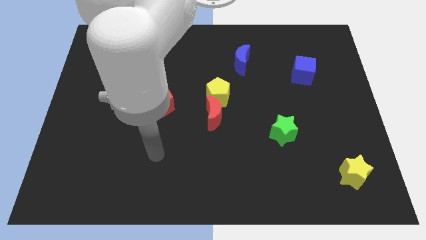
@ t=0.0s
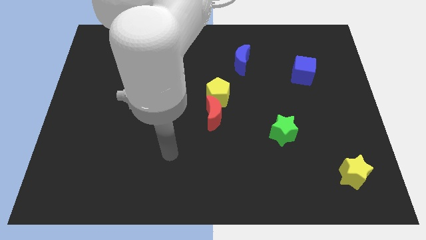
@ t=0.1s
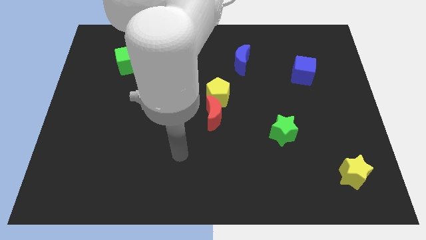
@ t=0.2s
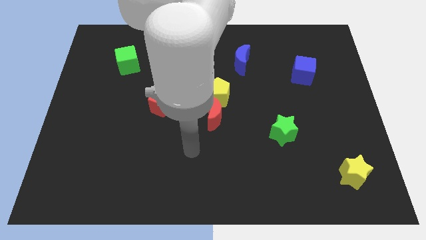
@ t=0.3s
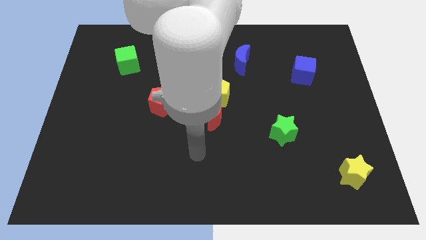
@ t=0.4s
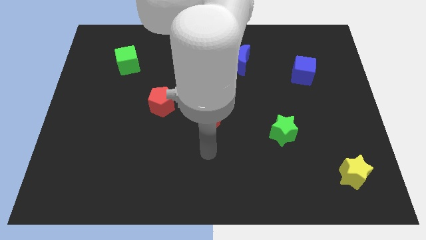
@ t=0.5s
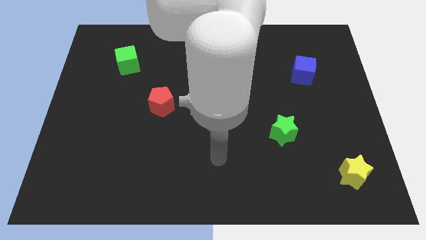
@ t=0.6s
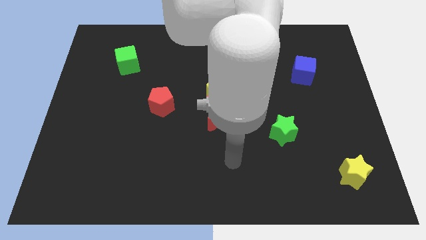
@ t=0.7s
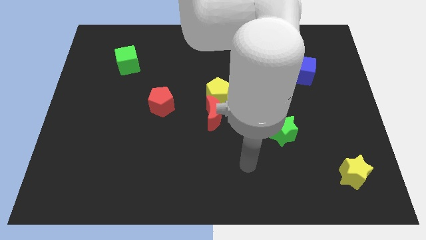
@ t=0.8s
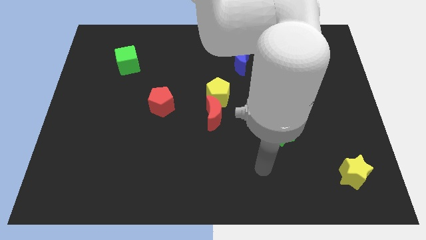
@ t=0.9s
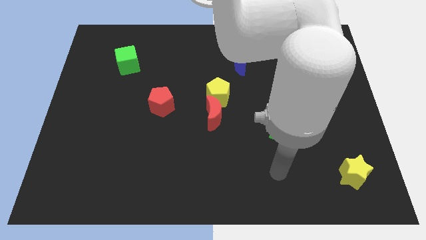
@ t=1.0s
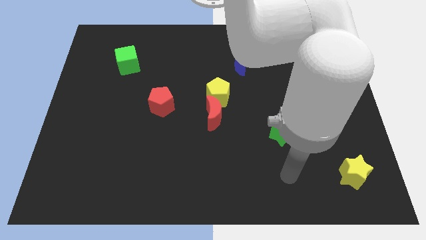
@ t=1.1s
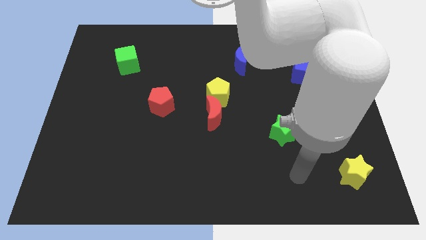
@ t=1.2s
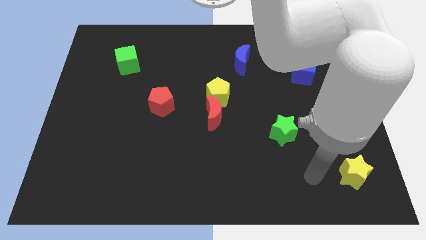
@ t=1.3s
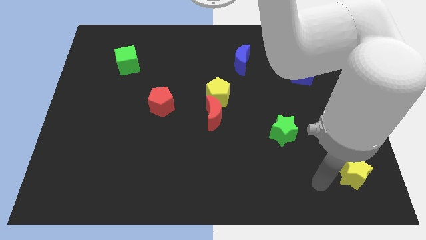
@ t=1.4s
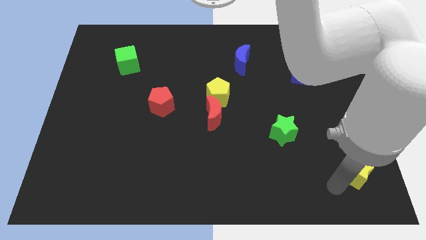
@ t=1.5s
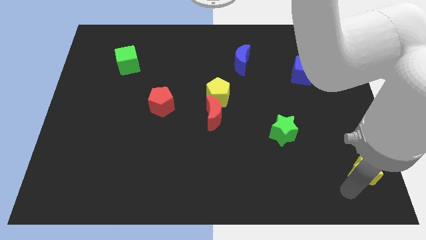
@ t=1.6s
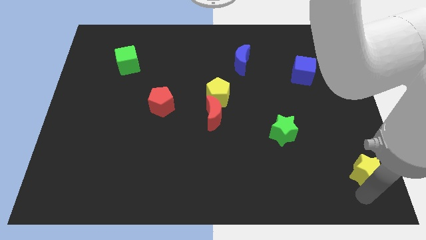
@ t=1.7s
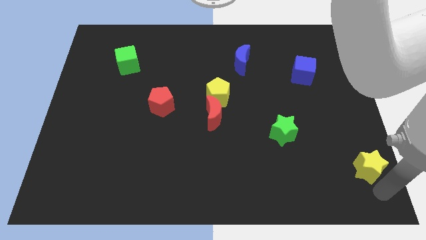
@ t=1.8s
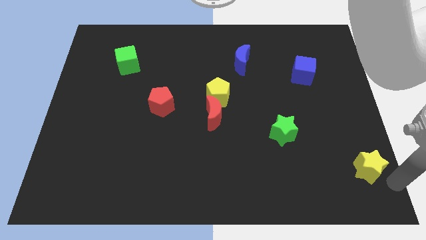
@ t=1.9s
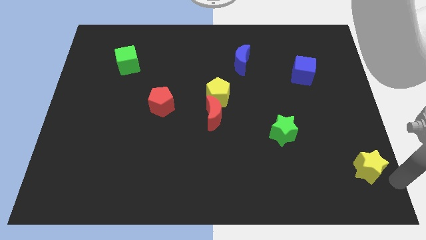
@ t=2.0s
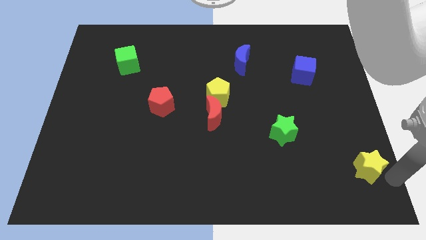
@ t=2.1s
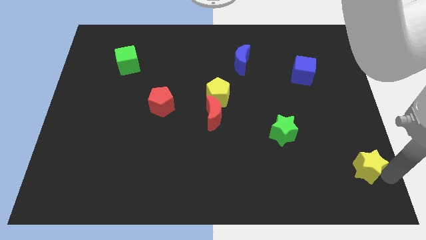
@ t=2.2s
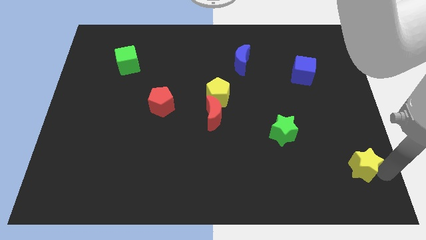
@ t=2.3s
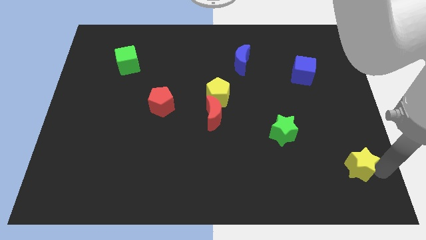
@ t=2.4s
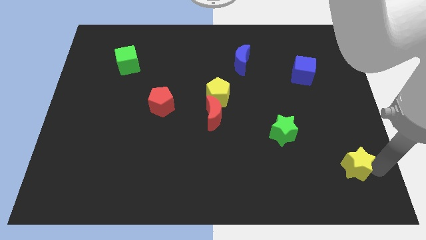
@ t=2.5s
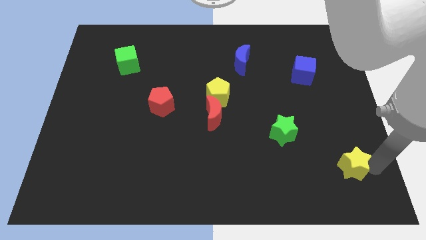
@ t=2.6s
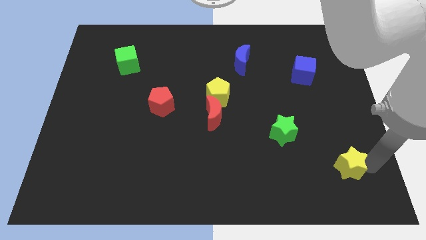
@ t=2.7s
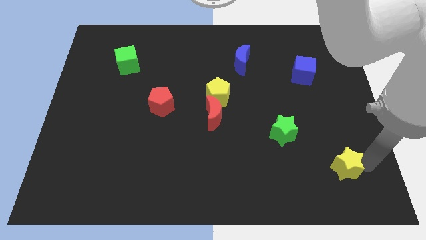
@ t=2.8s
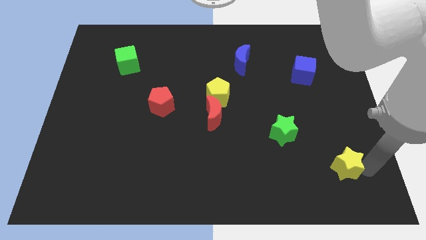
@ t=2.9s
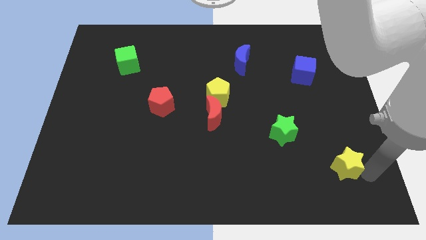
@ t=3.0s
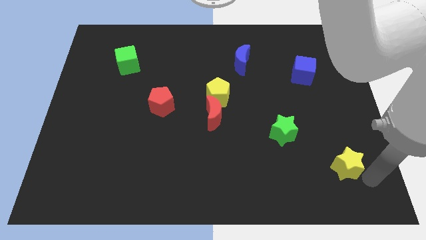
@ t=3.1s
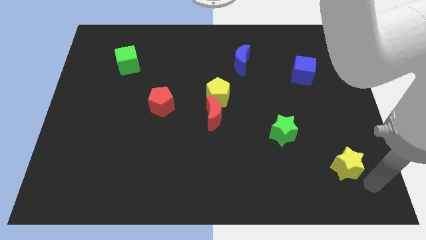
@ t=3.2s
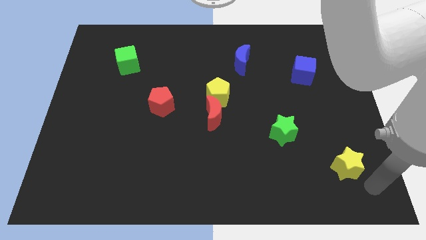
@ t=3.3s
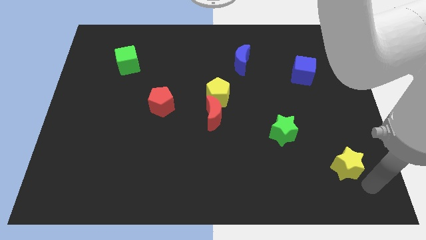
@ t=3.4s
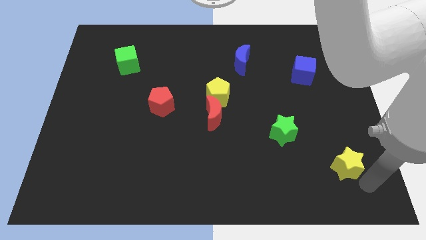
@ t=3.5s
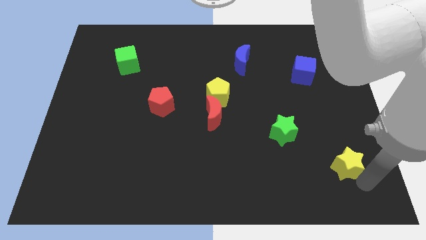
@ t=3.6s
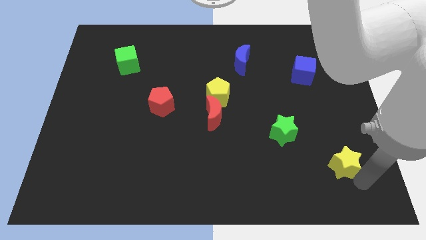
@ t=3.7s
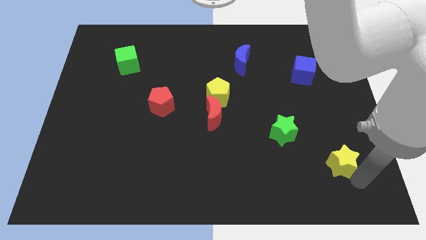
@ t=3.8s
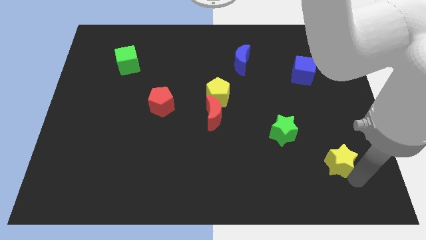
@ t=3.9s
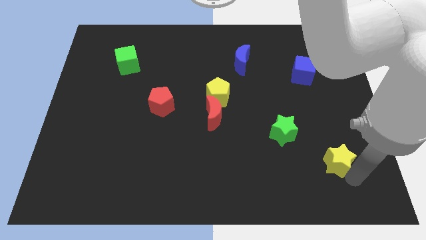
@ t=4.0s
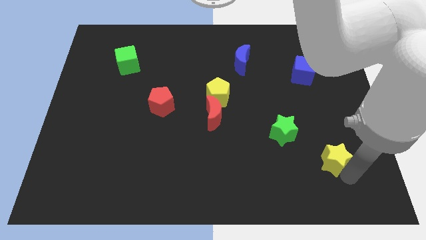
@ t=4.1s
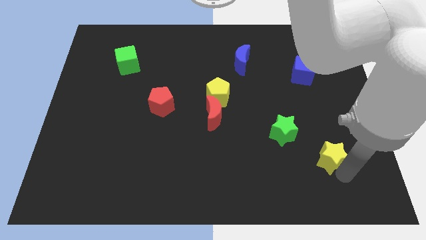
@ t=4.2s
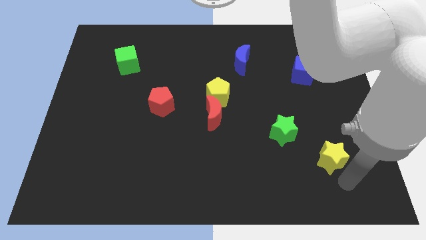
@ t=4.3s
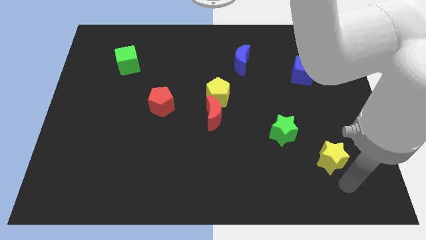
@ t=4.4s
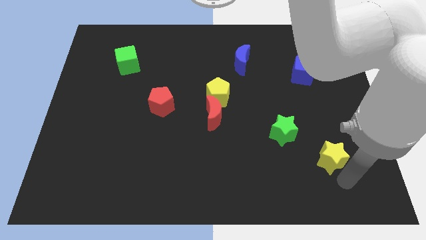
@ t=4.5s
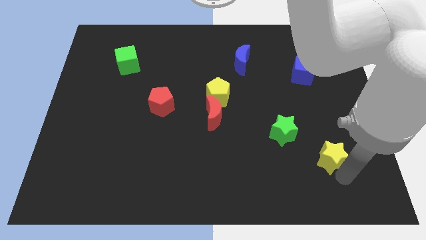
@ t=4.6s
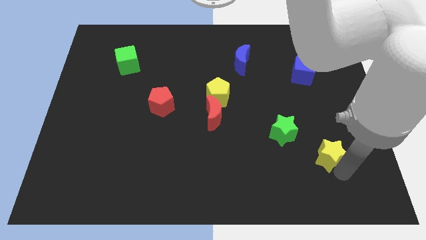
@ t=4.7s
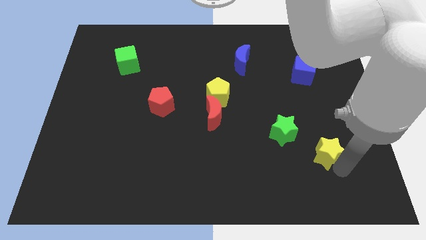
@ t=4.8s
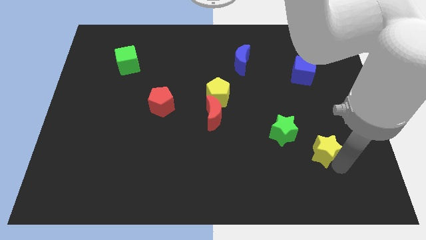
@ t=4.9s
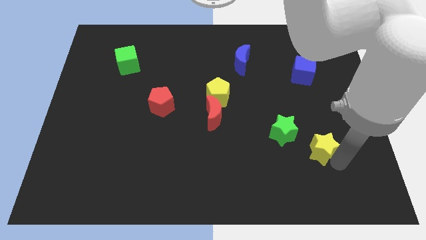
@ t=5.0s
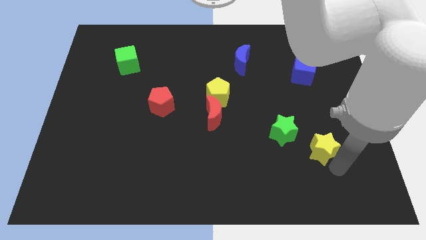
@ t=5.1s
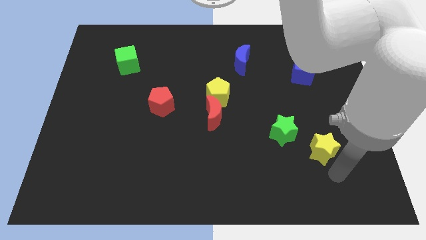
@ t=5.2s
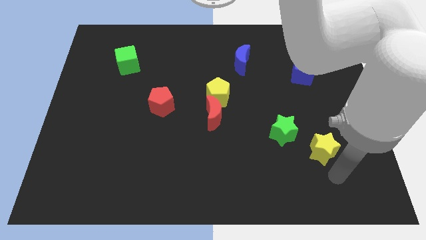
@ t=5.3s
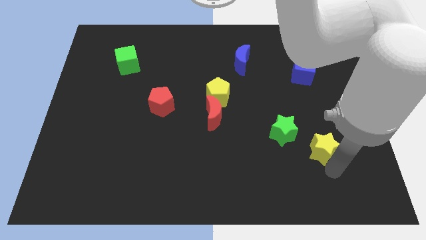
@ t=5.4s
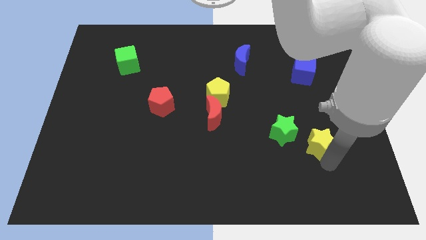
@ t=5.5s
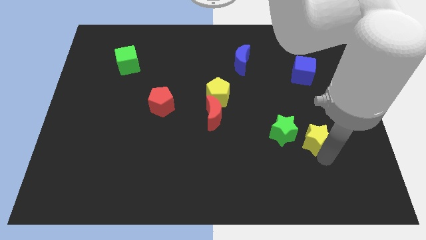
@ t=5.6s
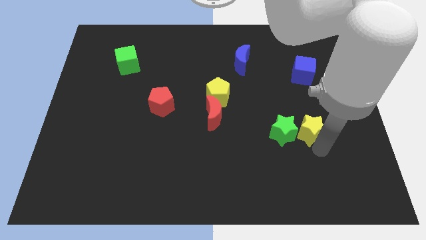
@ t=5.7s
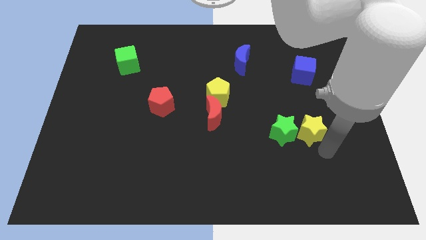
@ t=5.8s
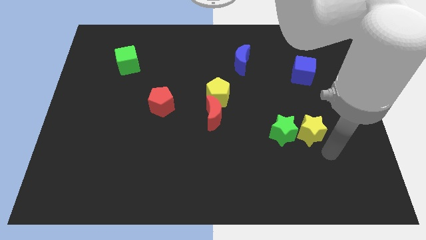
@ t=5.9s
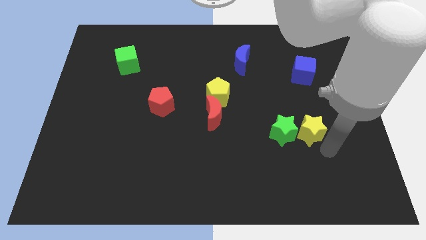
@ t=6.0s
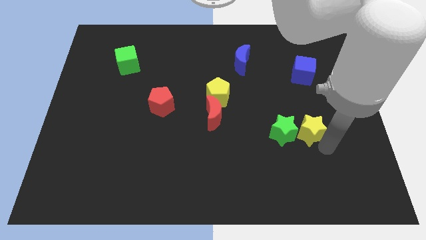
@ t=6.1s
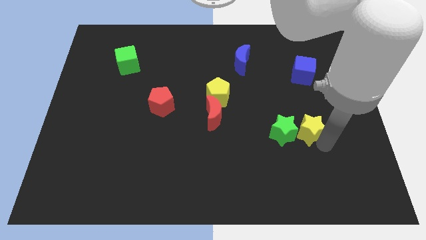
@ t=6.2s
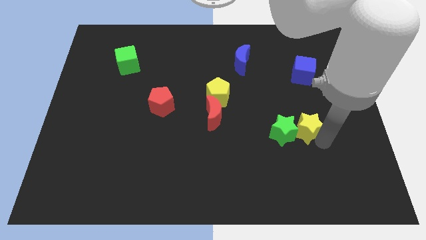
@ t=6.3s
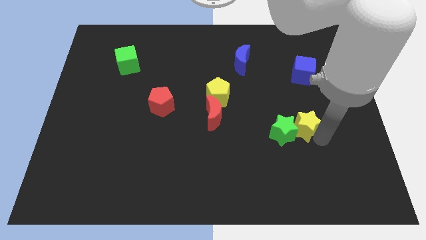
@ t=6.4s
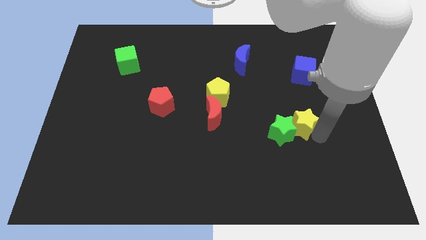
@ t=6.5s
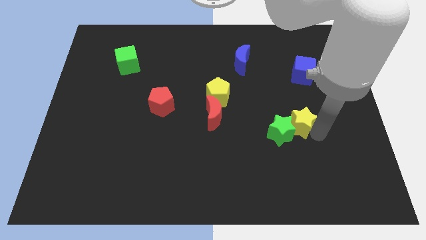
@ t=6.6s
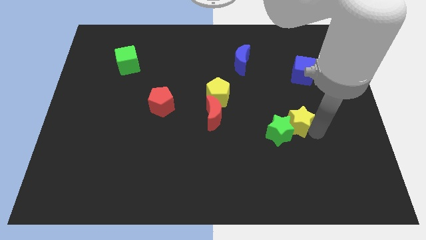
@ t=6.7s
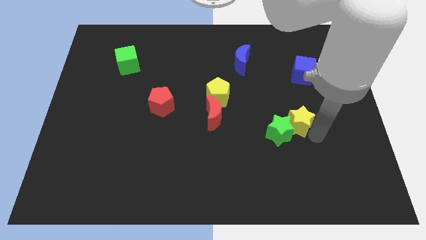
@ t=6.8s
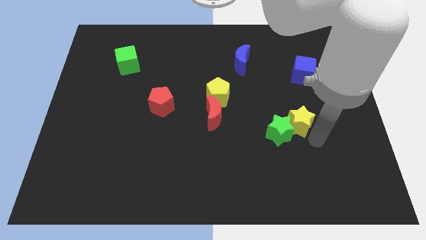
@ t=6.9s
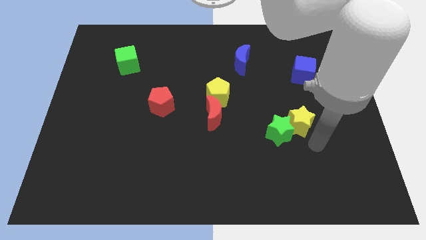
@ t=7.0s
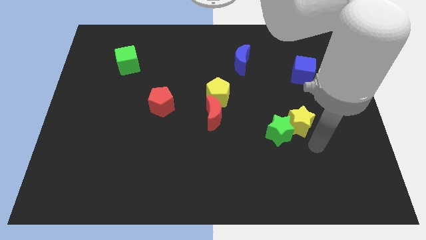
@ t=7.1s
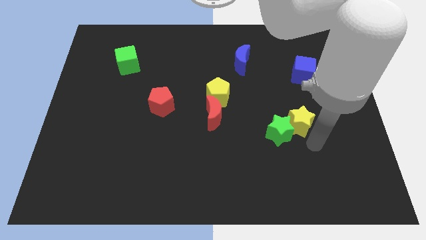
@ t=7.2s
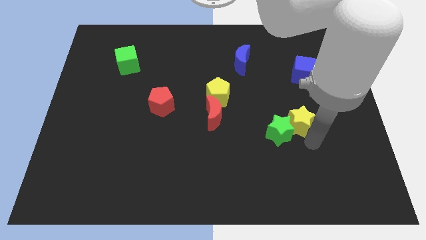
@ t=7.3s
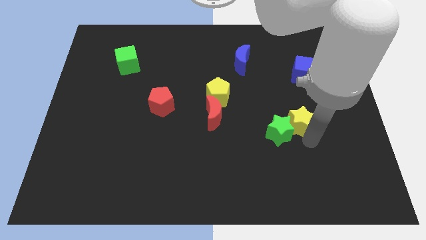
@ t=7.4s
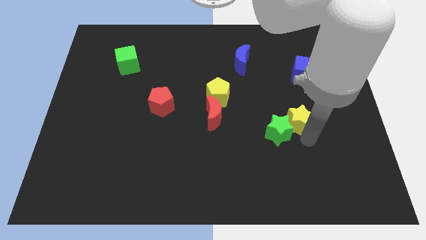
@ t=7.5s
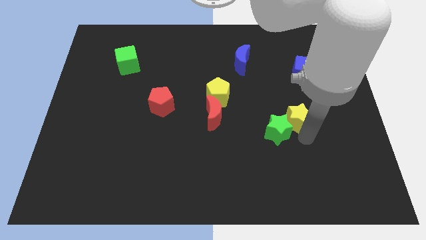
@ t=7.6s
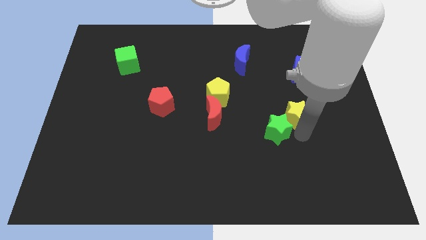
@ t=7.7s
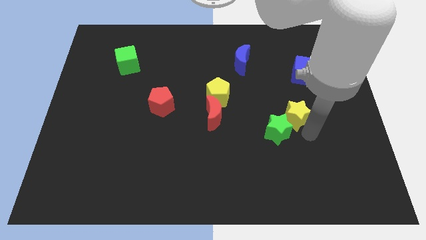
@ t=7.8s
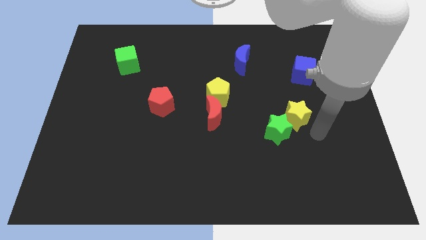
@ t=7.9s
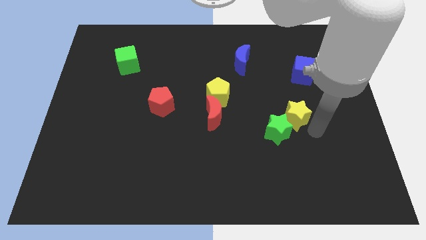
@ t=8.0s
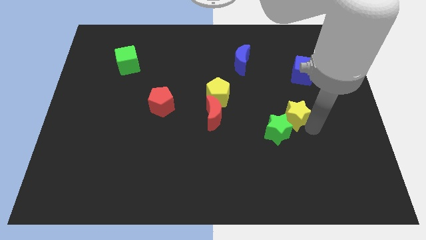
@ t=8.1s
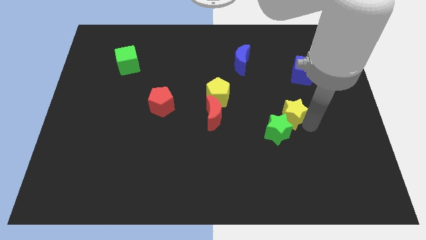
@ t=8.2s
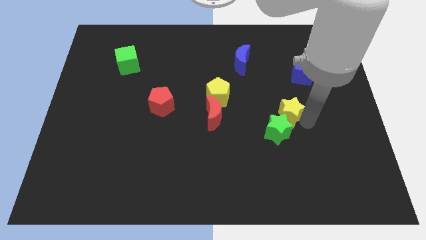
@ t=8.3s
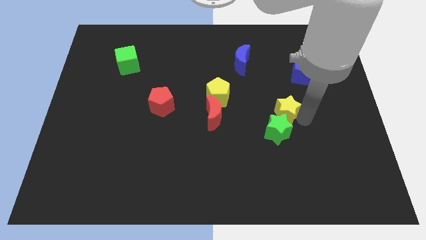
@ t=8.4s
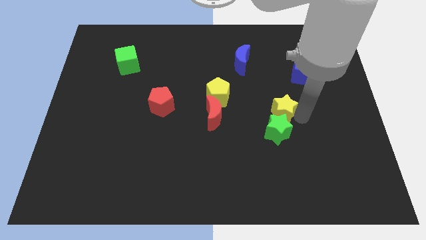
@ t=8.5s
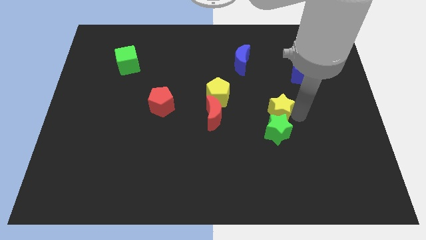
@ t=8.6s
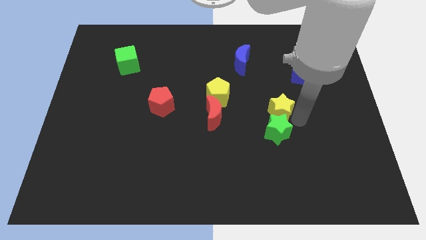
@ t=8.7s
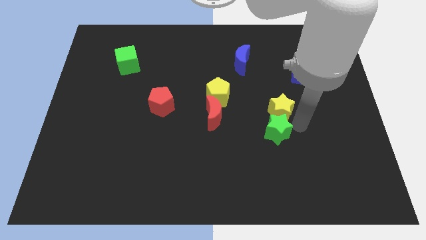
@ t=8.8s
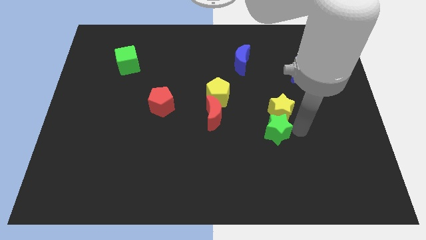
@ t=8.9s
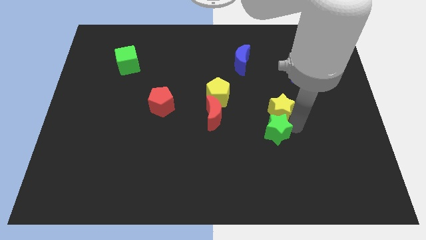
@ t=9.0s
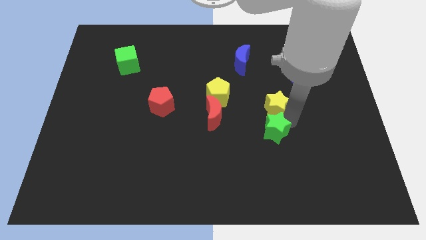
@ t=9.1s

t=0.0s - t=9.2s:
move the yellow star just right of the yellow pentagon
